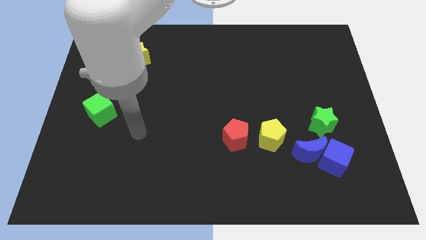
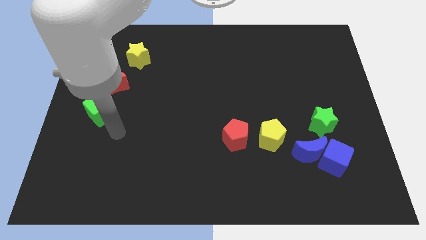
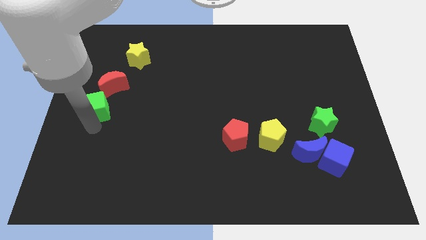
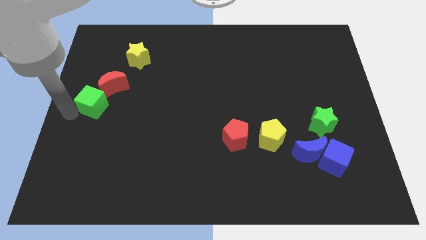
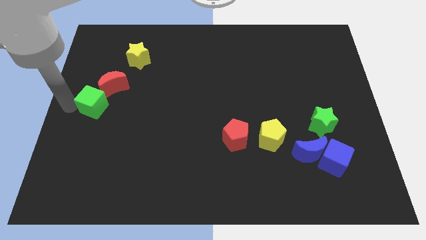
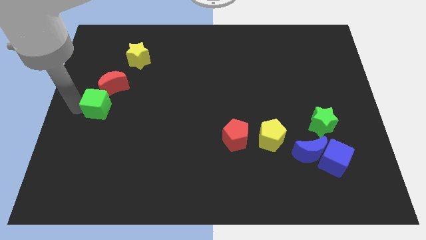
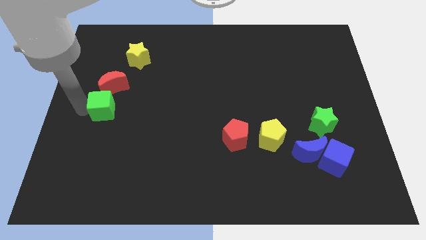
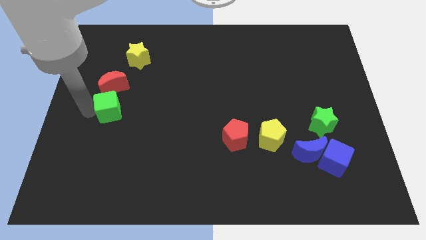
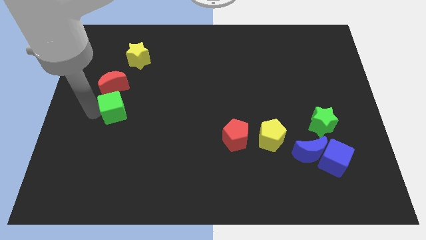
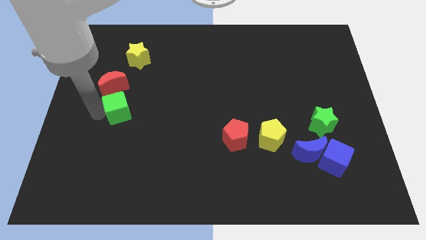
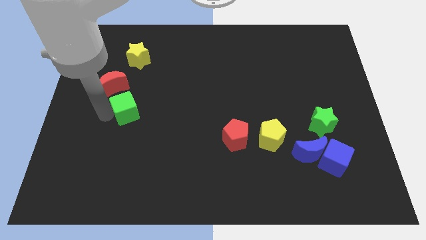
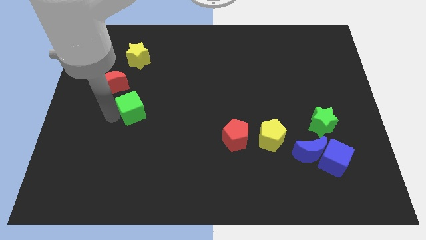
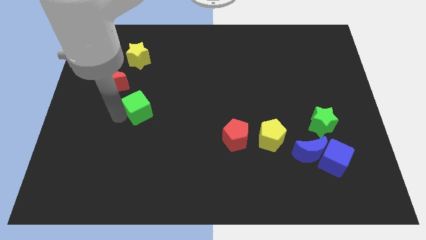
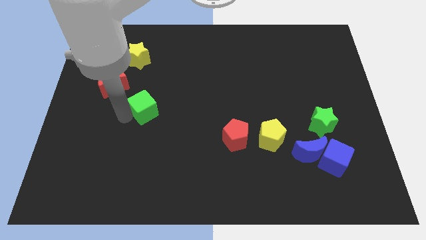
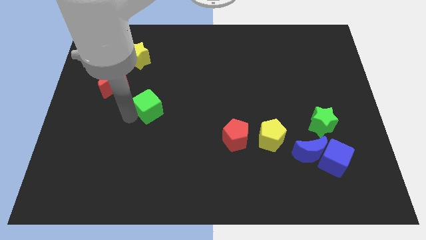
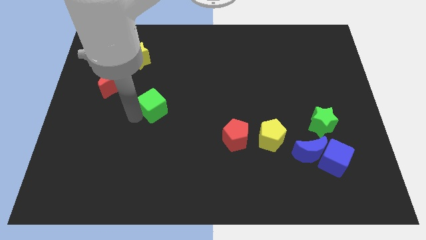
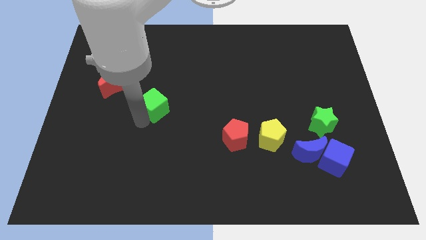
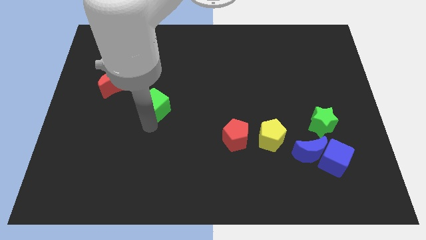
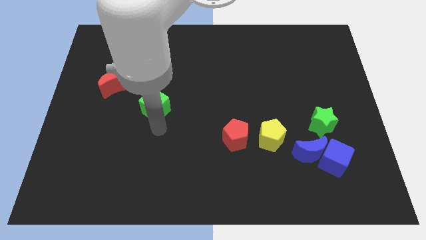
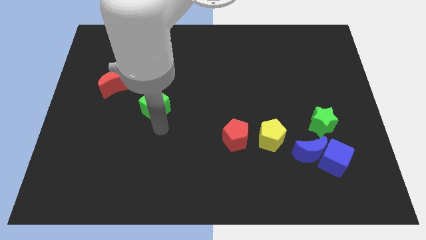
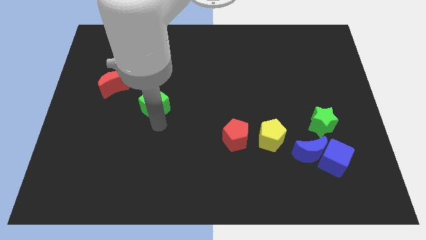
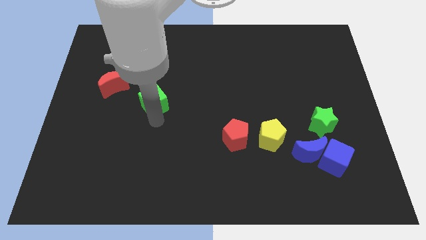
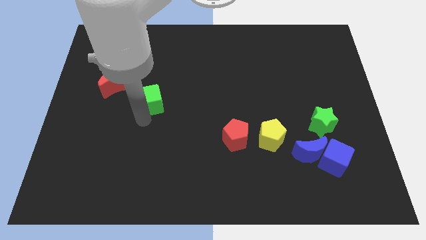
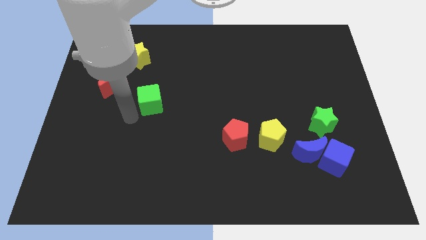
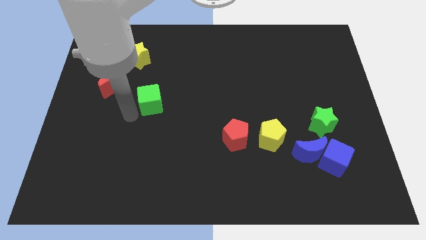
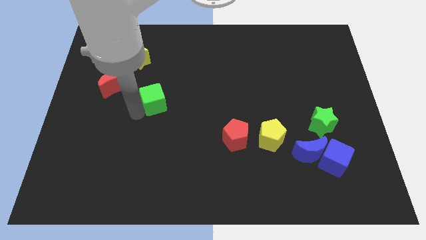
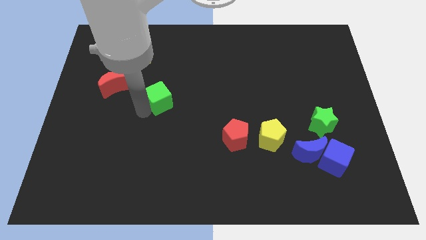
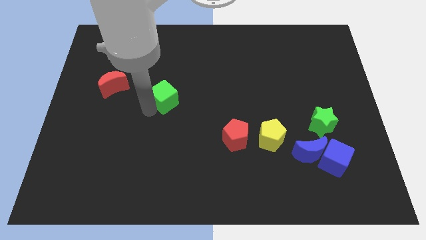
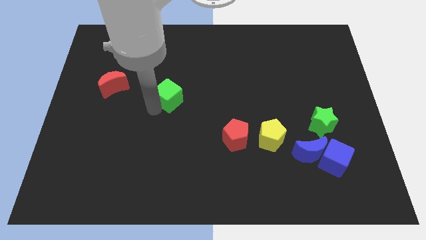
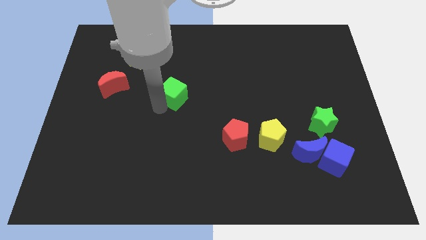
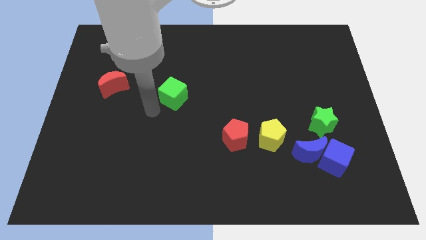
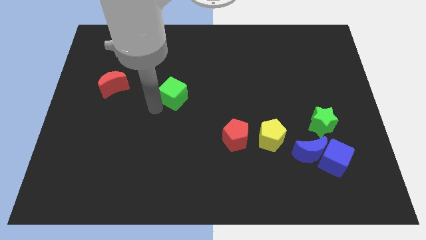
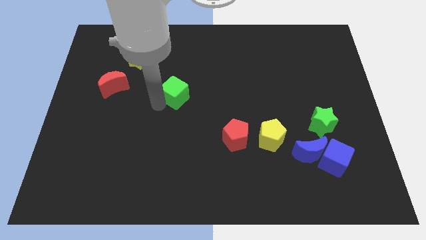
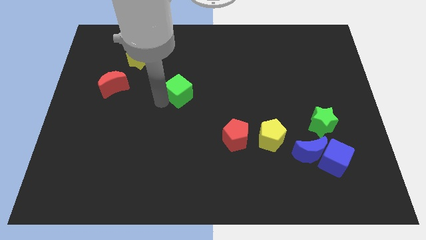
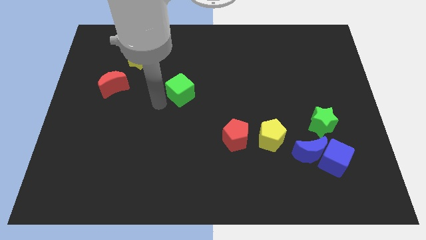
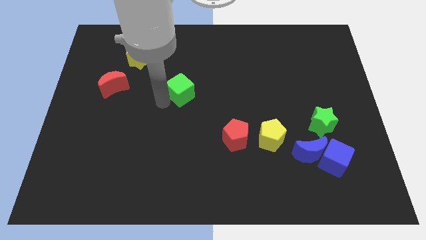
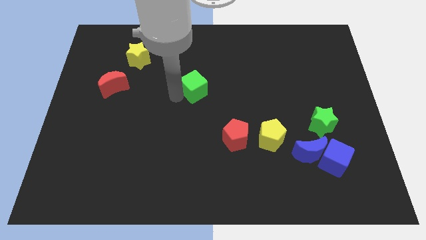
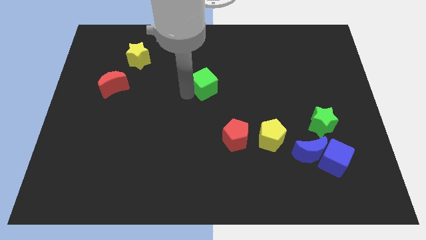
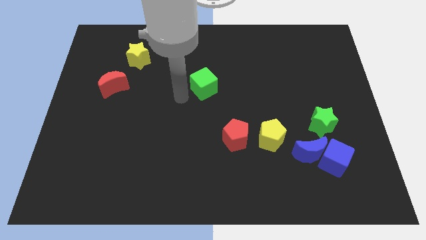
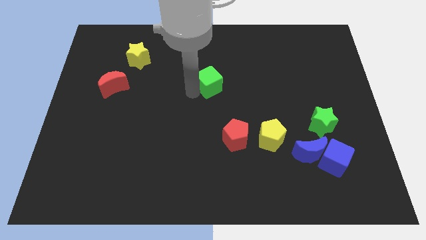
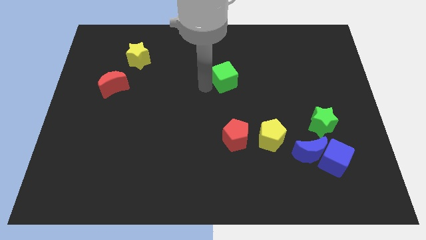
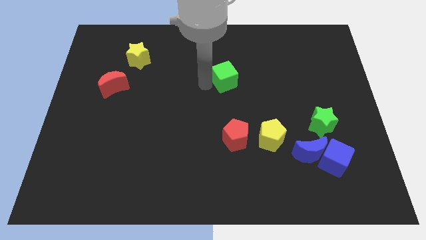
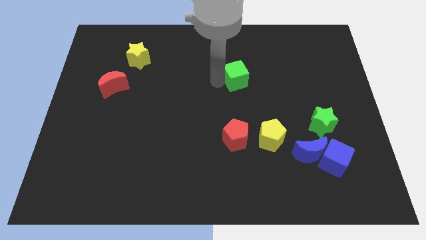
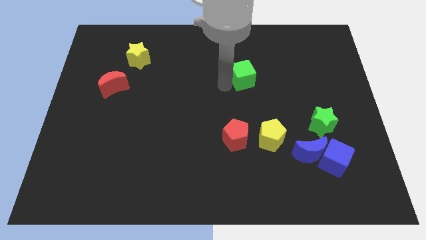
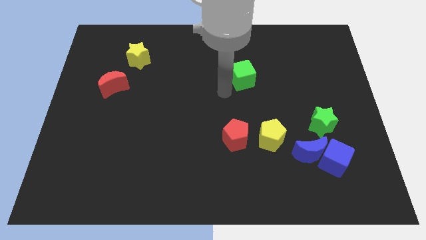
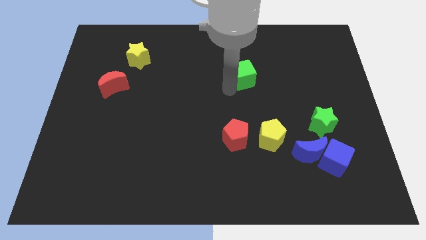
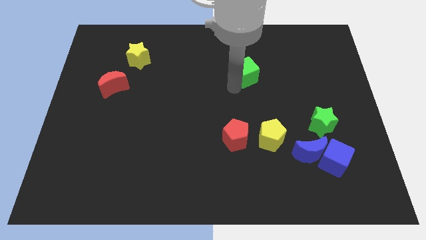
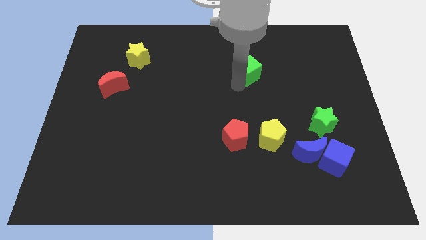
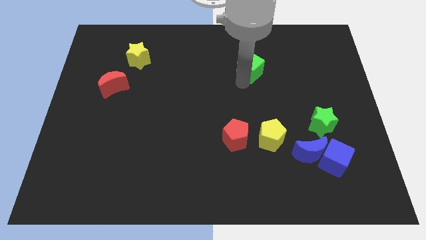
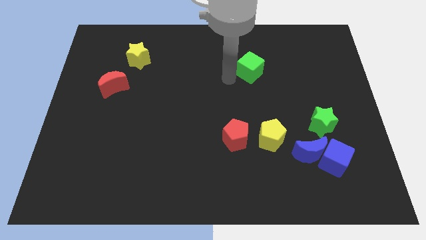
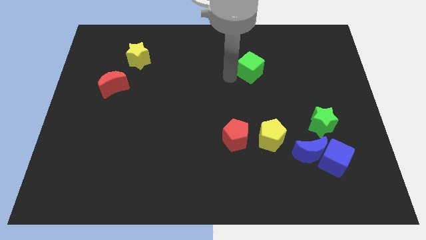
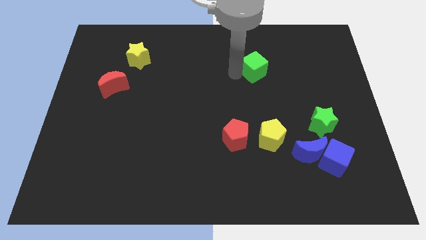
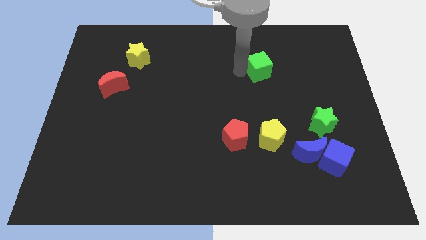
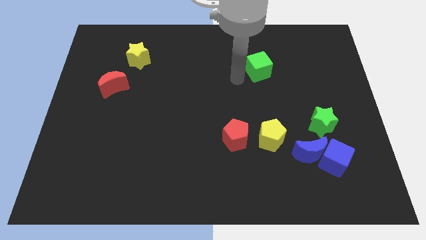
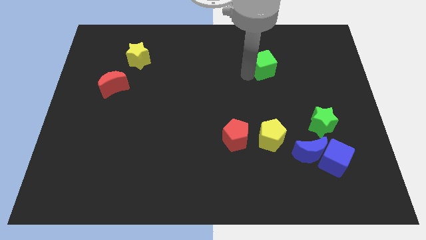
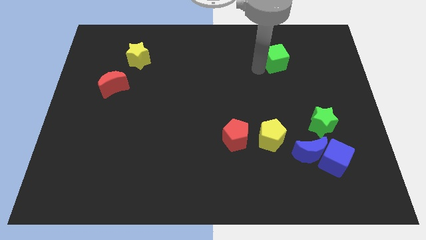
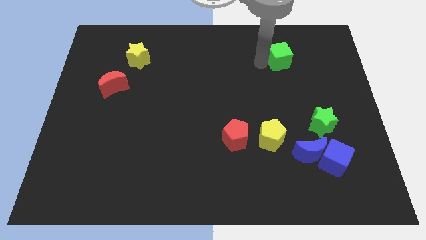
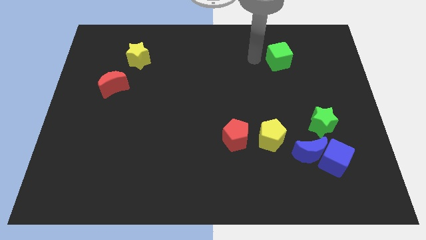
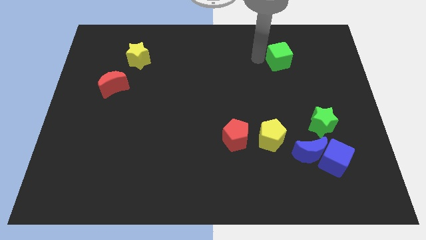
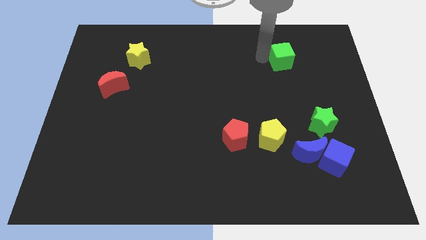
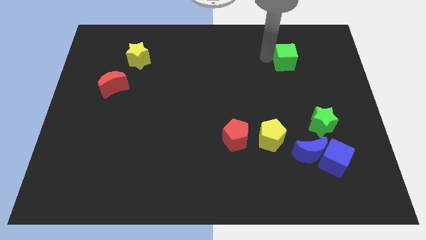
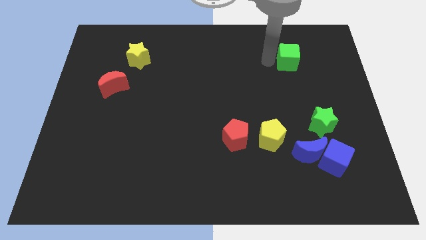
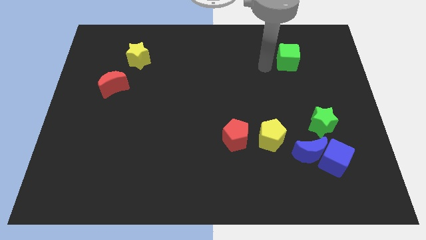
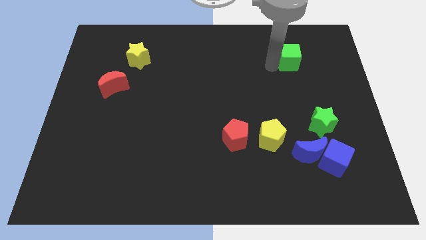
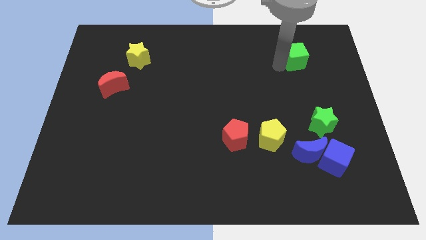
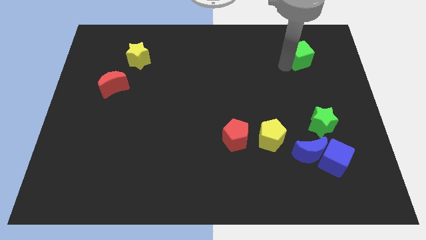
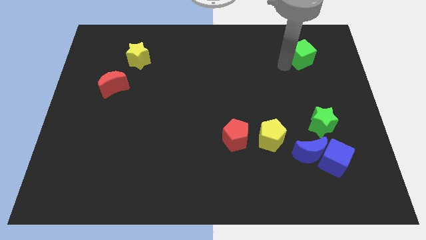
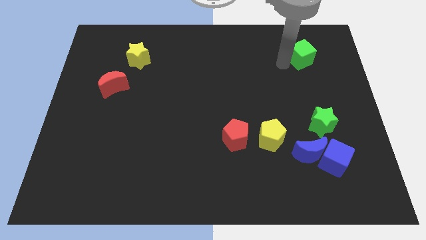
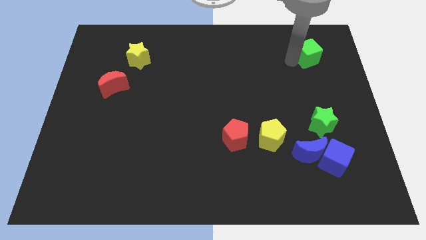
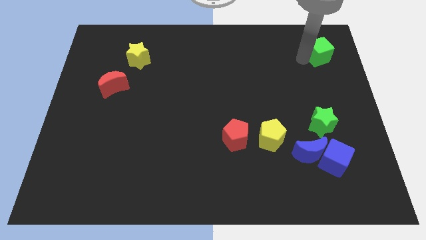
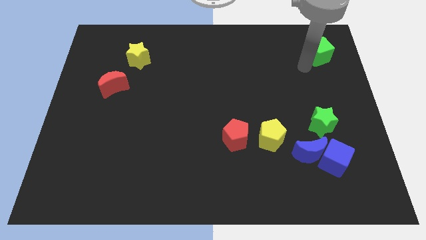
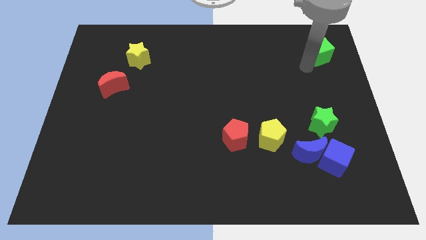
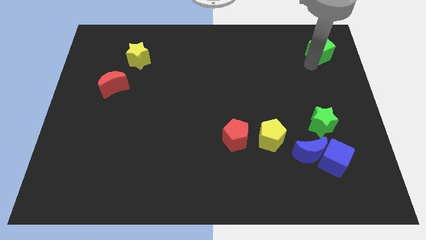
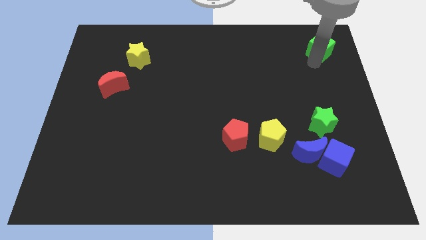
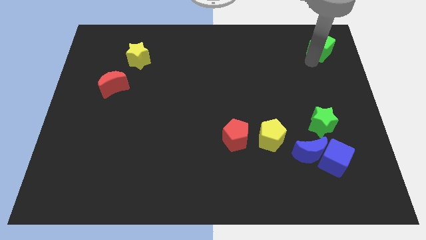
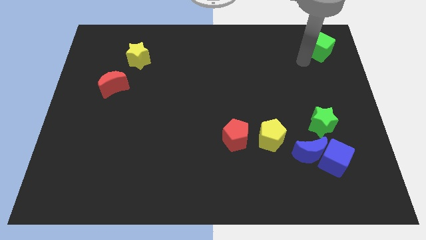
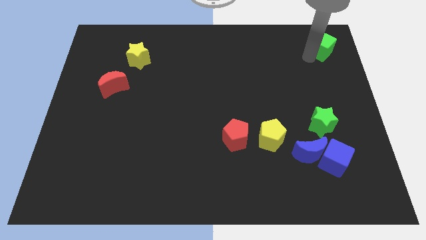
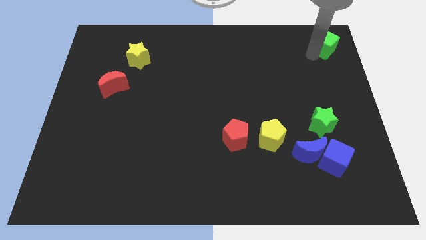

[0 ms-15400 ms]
slide the green cube to the top right of the board
